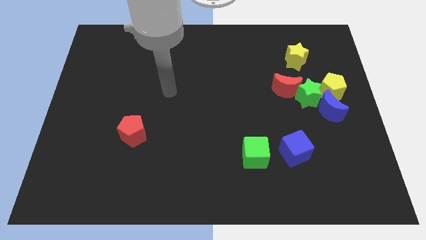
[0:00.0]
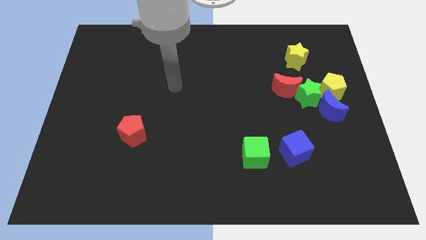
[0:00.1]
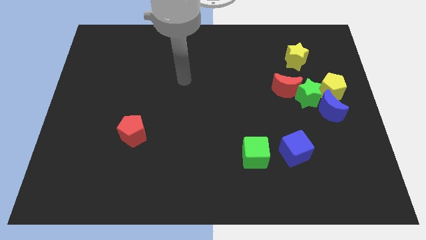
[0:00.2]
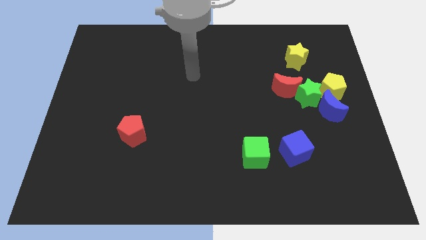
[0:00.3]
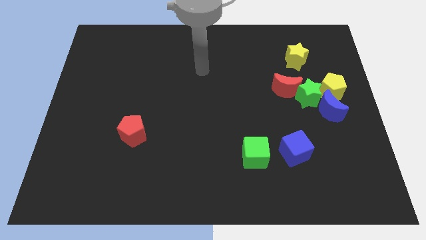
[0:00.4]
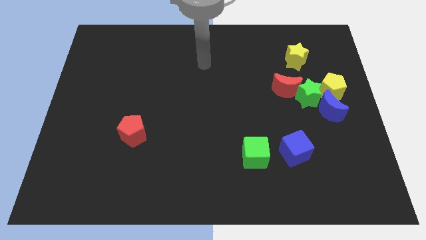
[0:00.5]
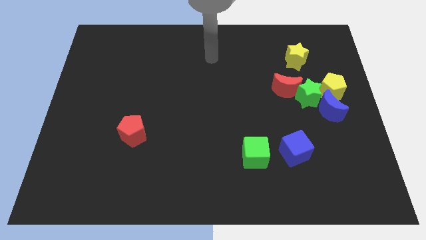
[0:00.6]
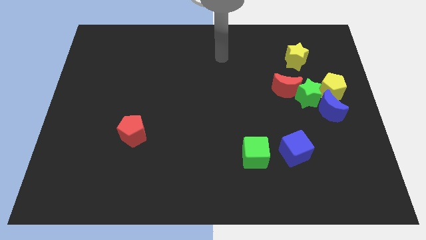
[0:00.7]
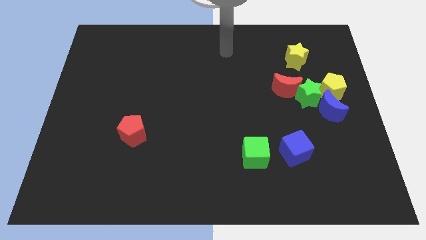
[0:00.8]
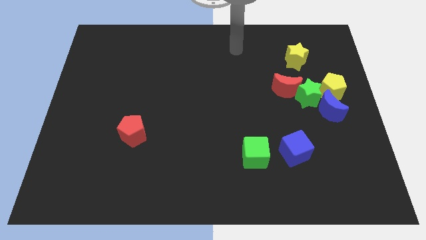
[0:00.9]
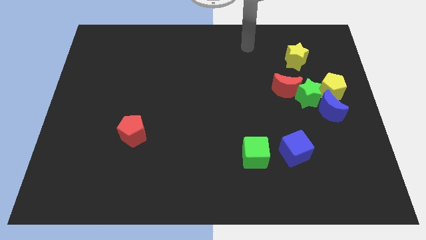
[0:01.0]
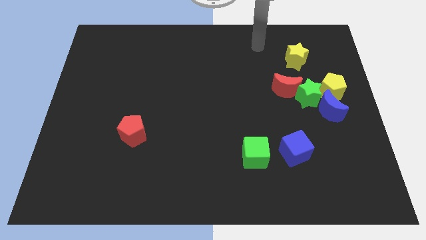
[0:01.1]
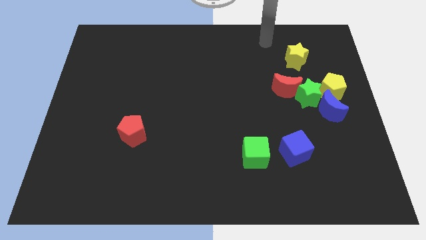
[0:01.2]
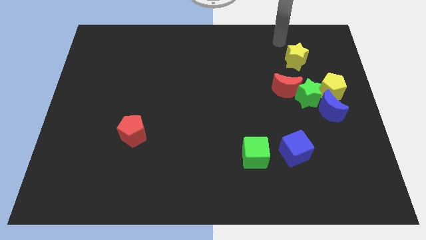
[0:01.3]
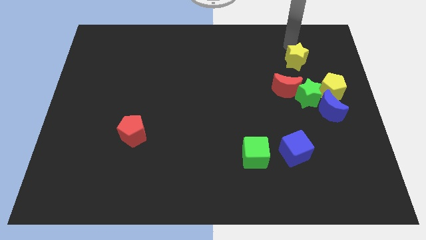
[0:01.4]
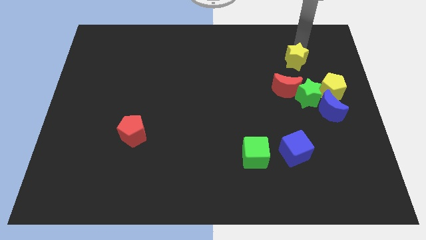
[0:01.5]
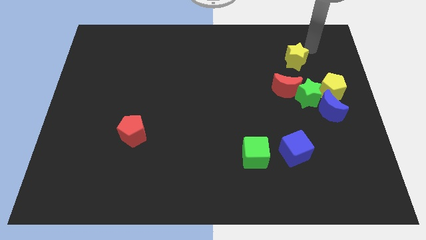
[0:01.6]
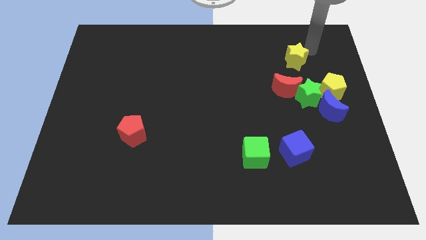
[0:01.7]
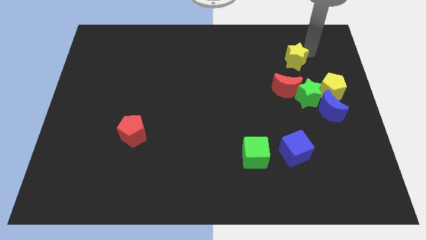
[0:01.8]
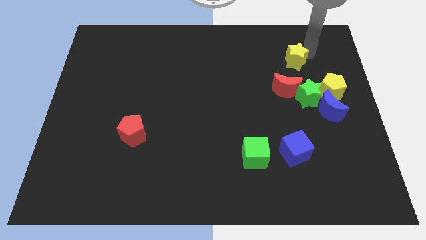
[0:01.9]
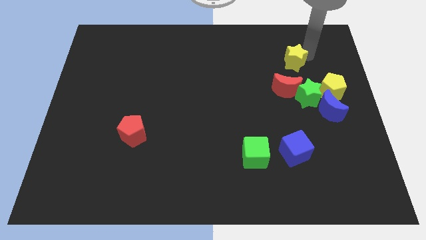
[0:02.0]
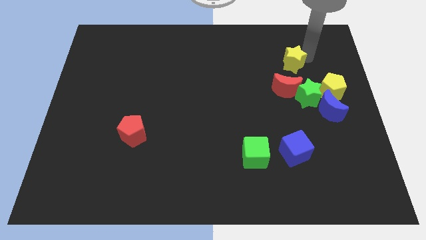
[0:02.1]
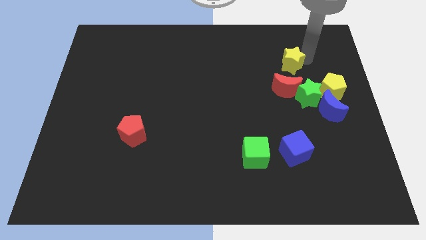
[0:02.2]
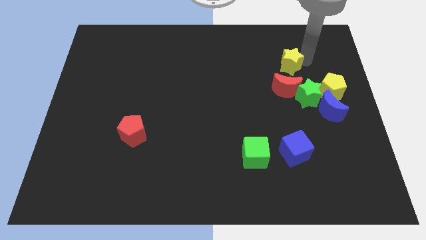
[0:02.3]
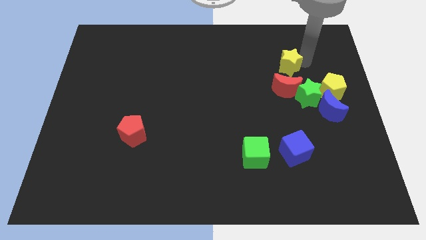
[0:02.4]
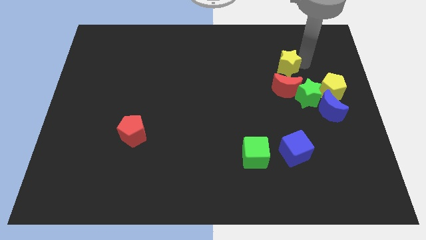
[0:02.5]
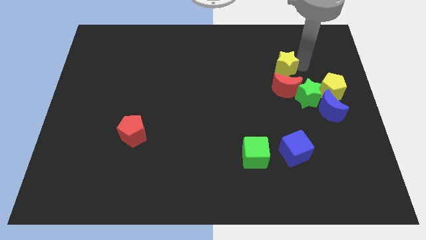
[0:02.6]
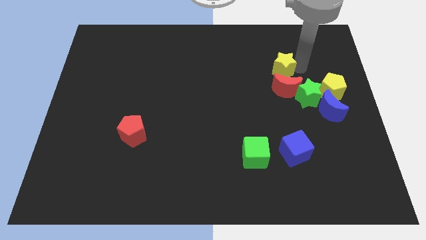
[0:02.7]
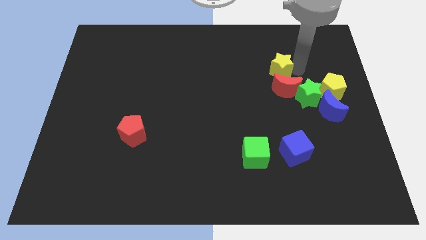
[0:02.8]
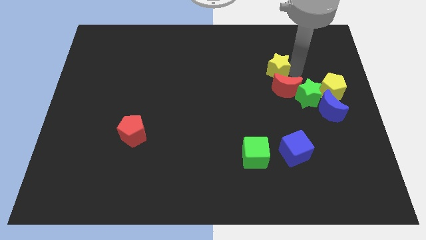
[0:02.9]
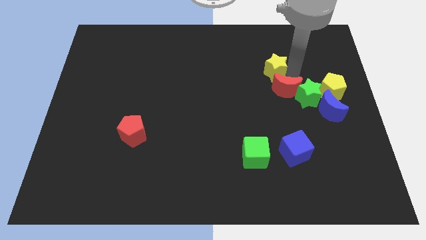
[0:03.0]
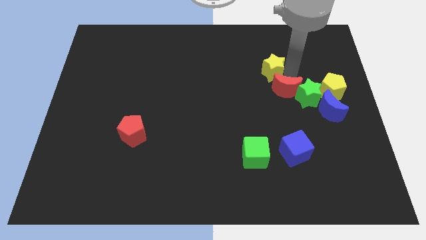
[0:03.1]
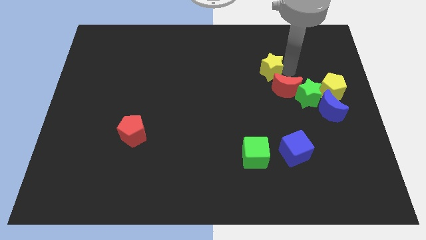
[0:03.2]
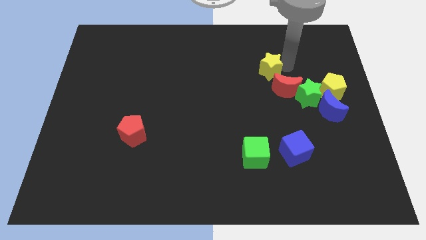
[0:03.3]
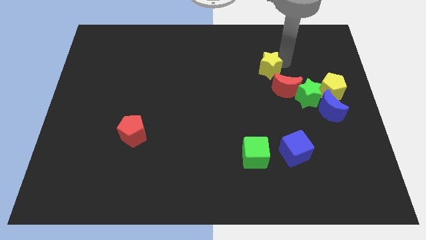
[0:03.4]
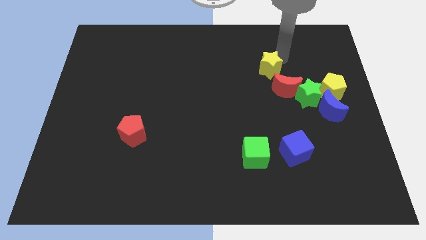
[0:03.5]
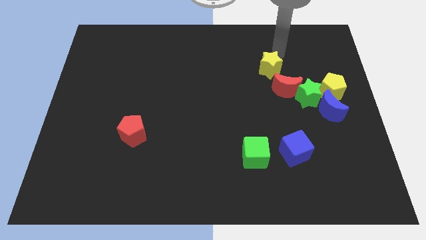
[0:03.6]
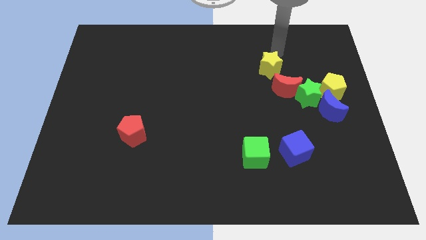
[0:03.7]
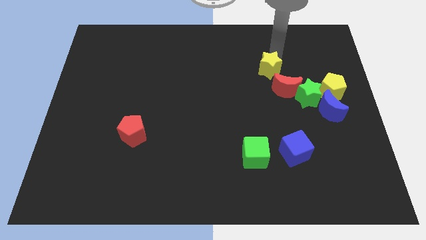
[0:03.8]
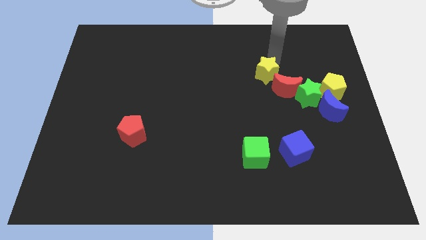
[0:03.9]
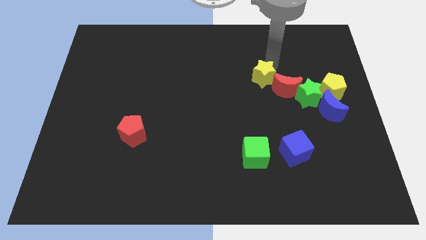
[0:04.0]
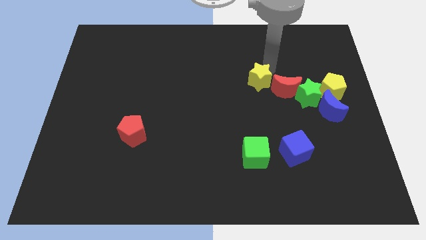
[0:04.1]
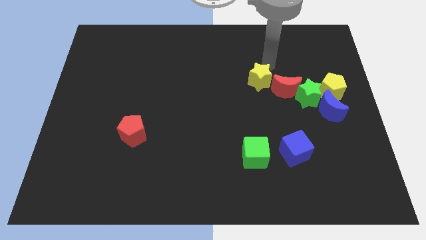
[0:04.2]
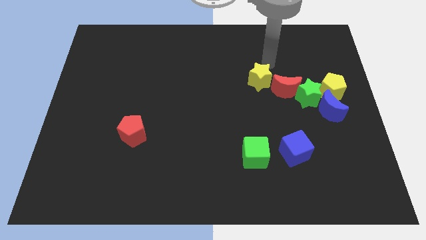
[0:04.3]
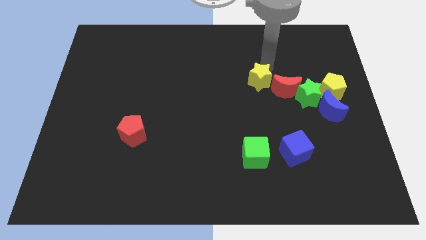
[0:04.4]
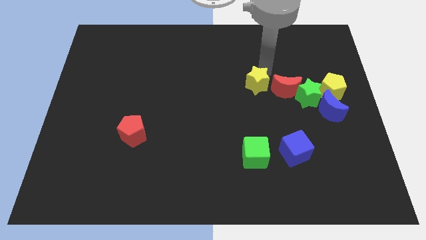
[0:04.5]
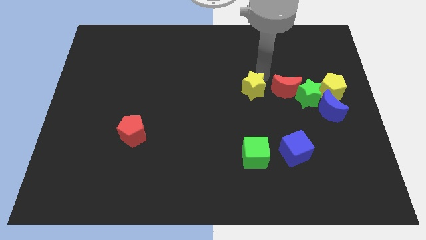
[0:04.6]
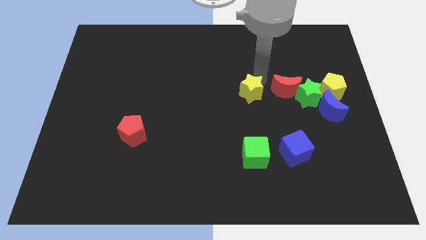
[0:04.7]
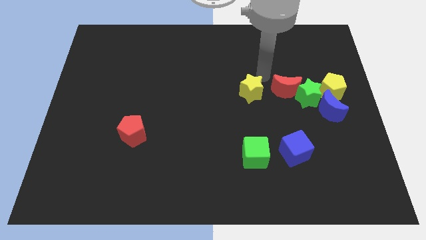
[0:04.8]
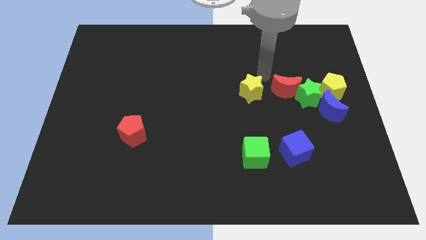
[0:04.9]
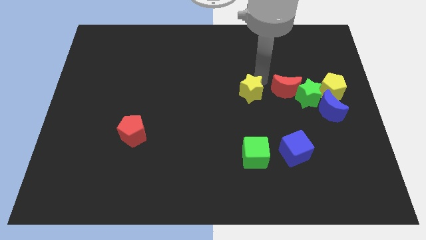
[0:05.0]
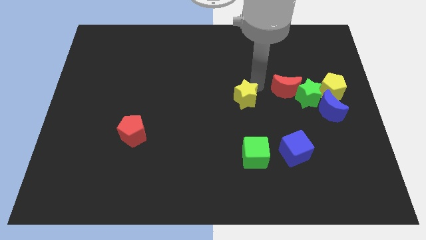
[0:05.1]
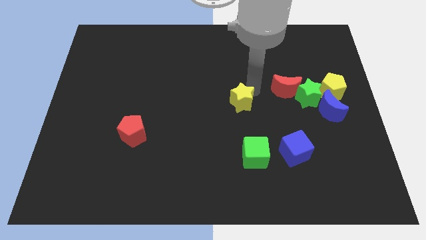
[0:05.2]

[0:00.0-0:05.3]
push the yellow star downwards and left diagonally

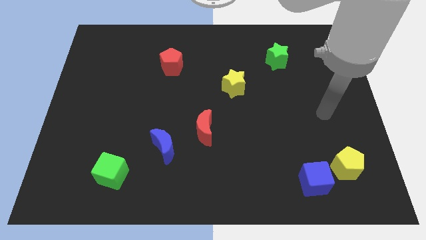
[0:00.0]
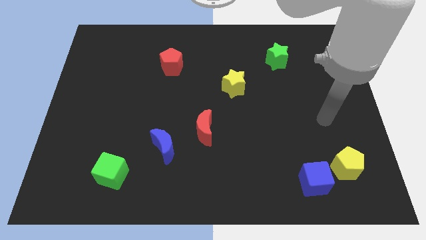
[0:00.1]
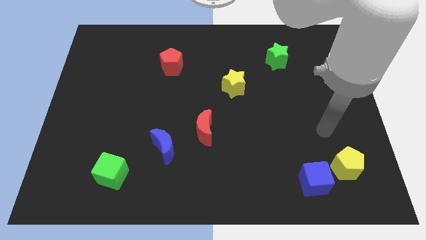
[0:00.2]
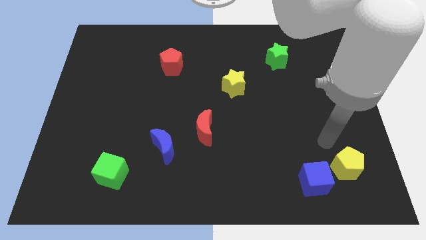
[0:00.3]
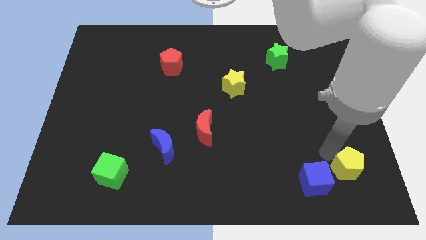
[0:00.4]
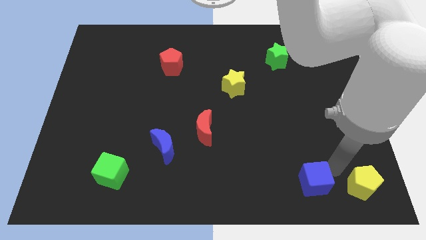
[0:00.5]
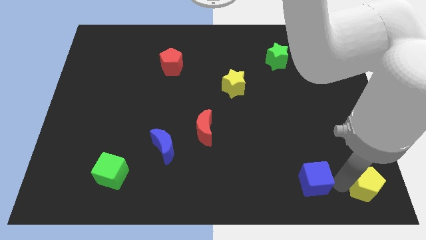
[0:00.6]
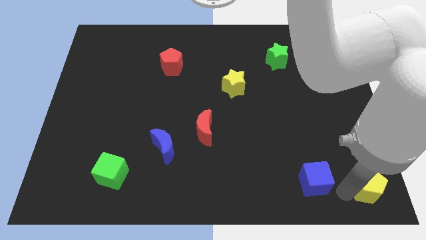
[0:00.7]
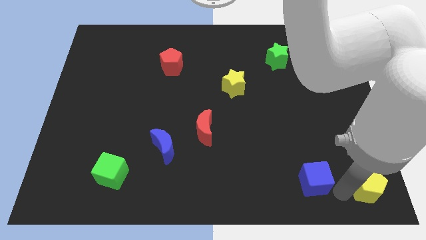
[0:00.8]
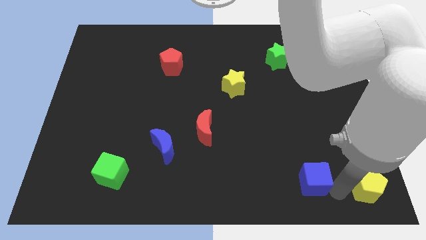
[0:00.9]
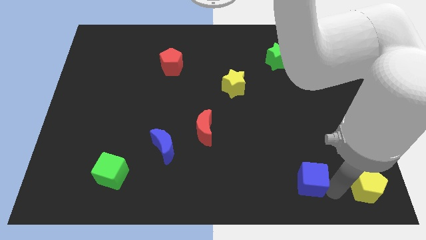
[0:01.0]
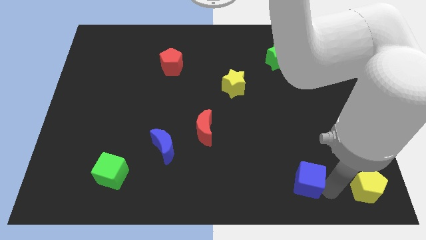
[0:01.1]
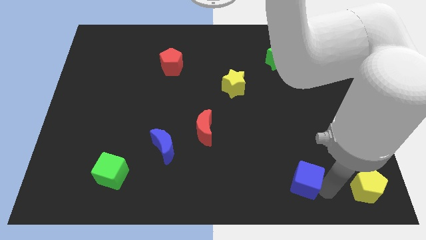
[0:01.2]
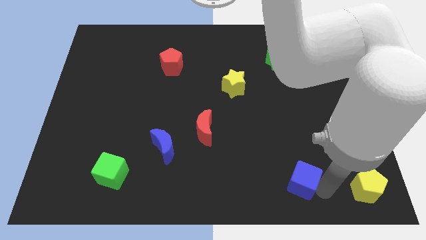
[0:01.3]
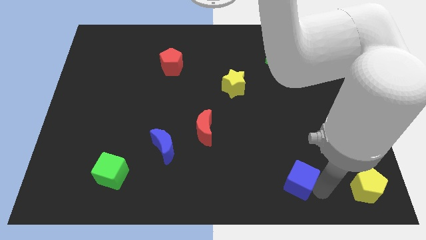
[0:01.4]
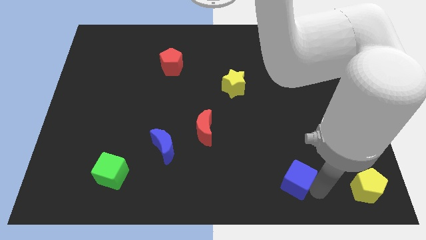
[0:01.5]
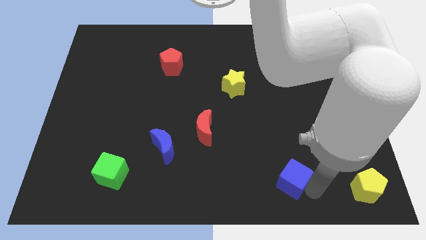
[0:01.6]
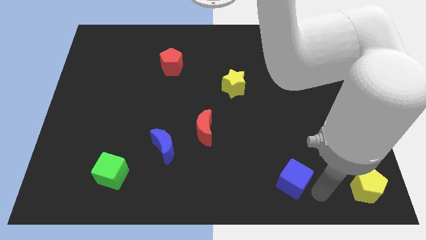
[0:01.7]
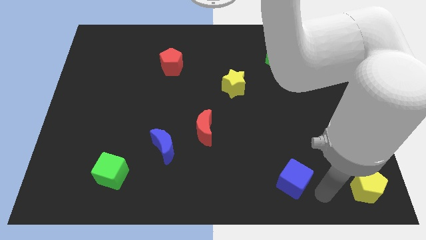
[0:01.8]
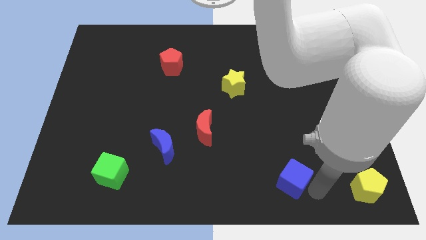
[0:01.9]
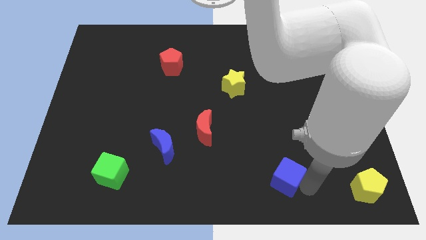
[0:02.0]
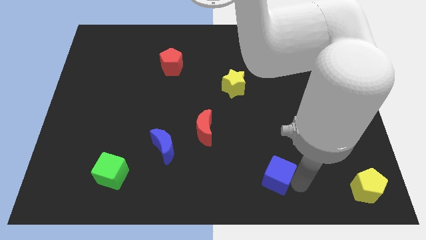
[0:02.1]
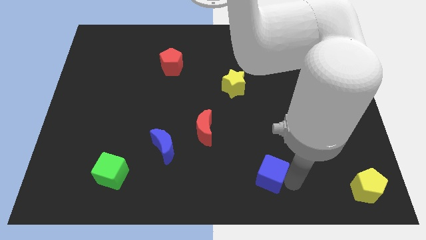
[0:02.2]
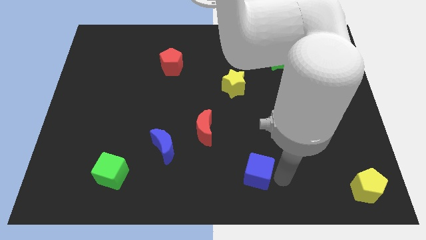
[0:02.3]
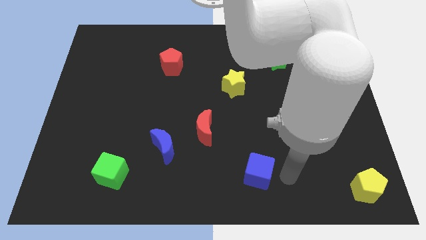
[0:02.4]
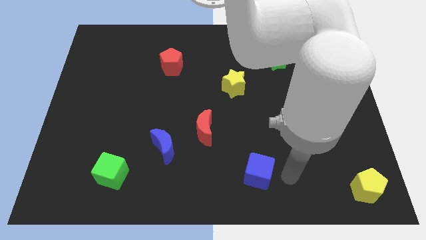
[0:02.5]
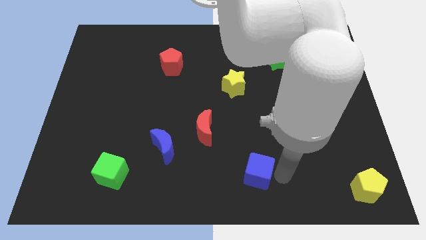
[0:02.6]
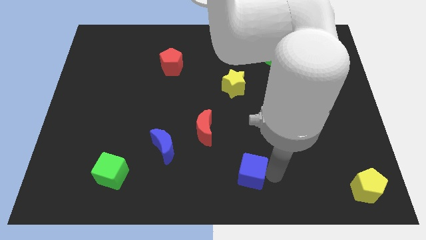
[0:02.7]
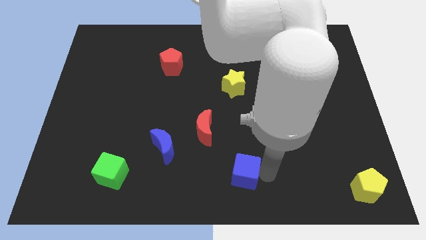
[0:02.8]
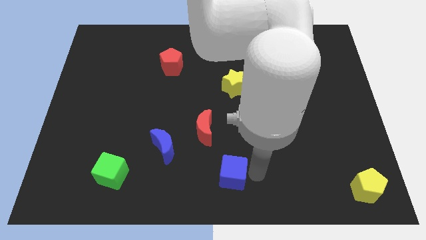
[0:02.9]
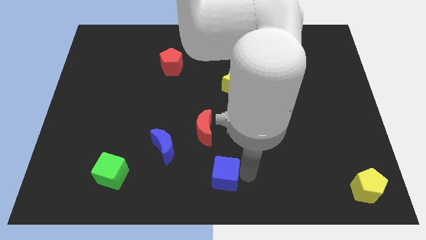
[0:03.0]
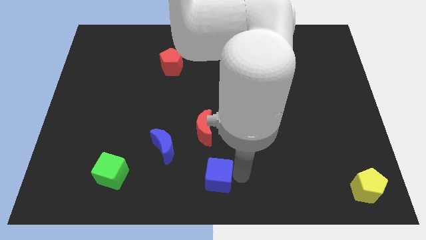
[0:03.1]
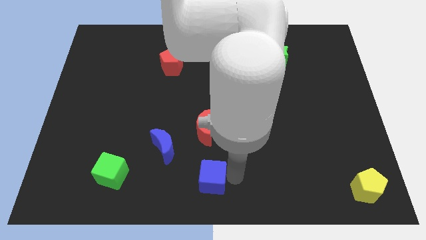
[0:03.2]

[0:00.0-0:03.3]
slide the blue cube to the left
